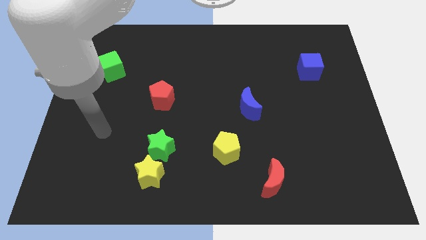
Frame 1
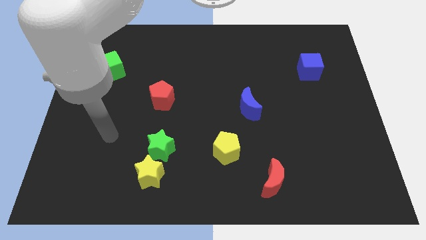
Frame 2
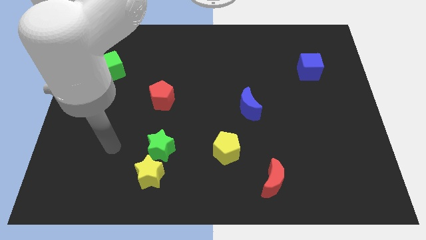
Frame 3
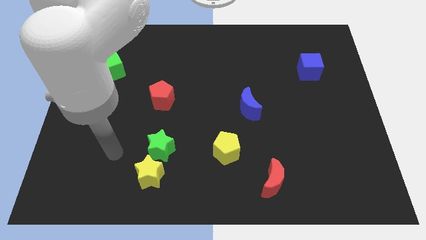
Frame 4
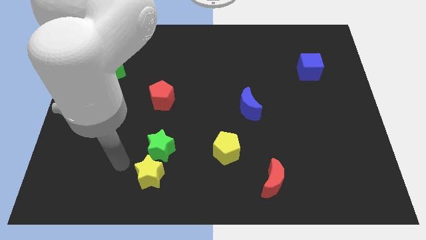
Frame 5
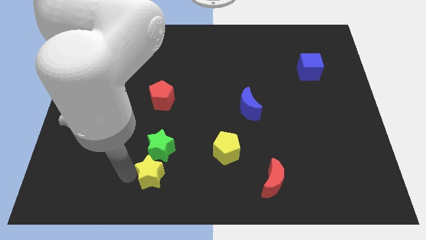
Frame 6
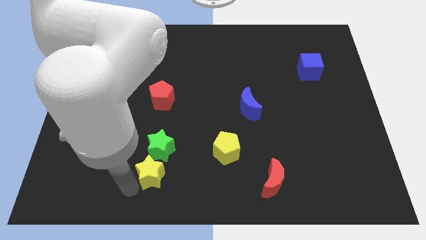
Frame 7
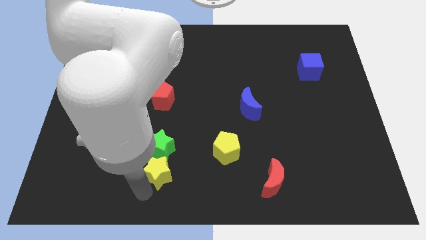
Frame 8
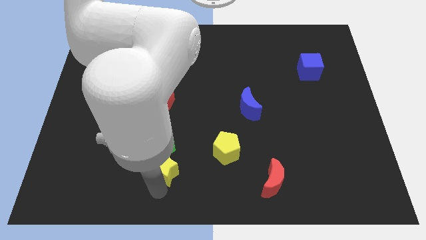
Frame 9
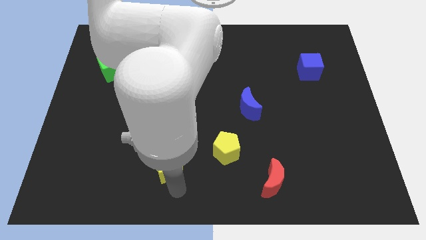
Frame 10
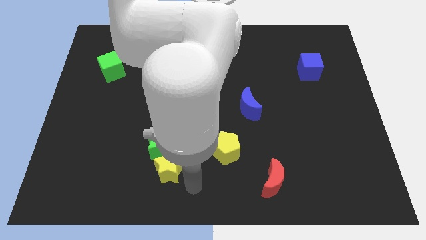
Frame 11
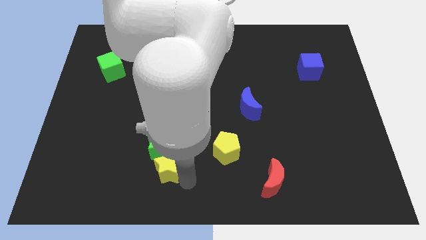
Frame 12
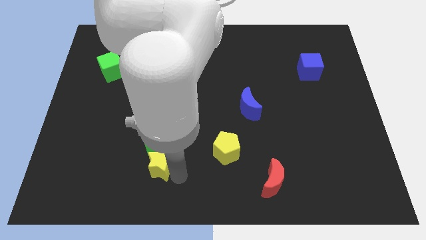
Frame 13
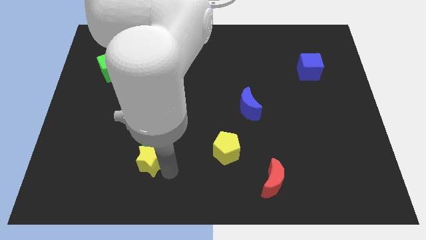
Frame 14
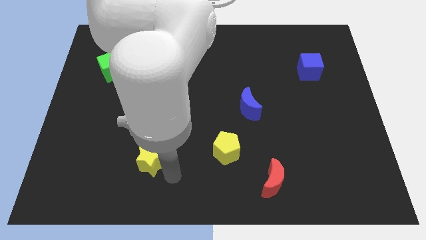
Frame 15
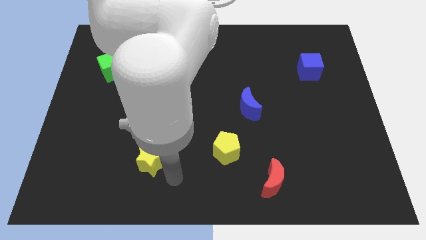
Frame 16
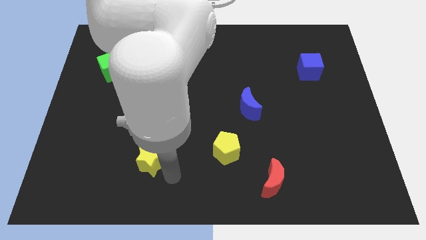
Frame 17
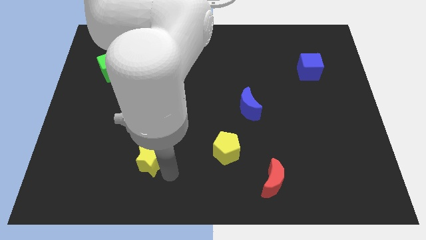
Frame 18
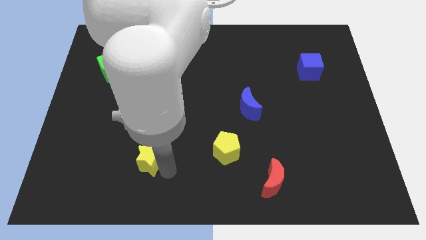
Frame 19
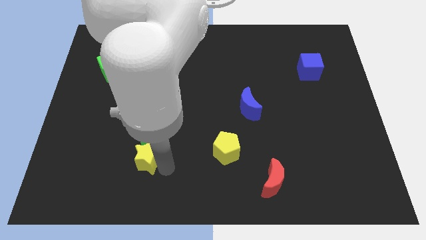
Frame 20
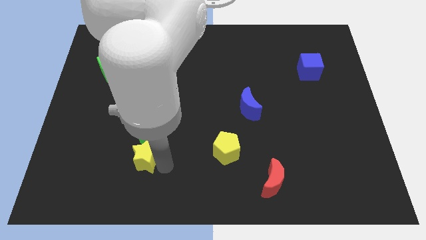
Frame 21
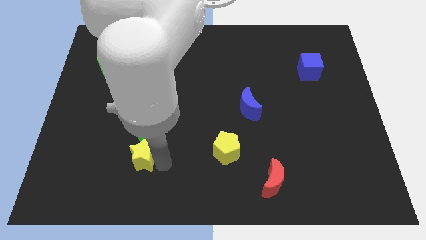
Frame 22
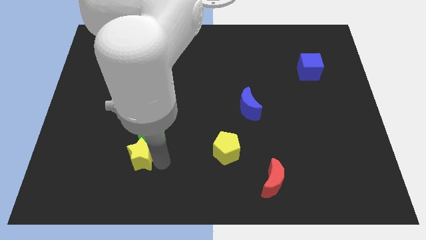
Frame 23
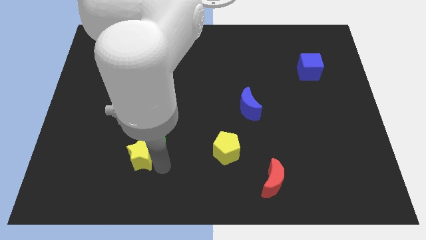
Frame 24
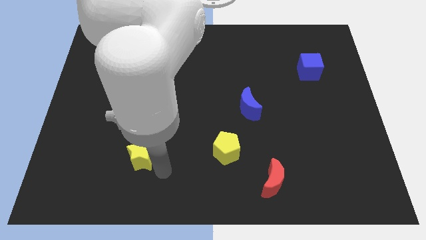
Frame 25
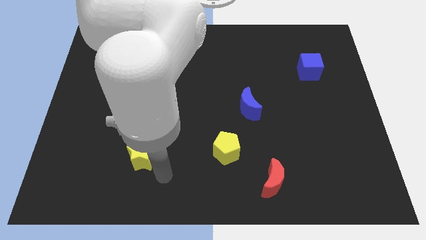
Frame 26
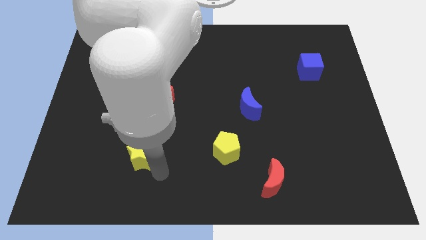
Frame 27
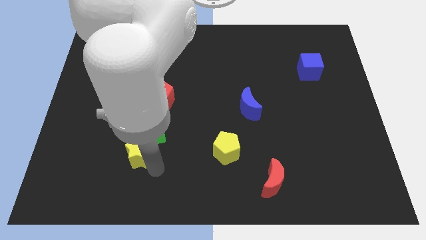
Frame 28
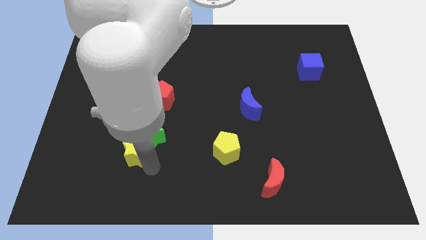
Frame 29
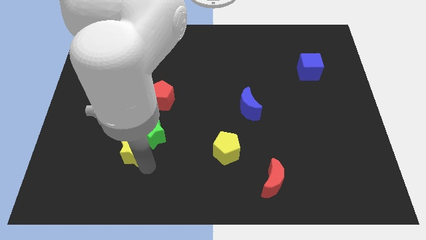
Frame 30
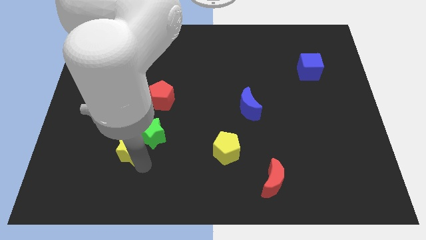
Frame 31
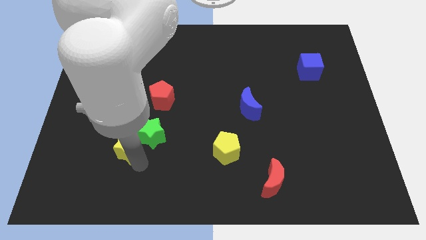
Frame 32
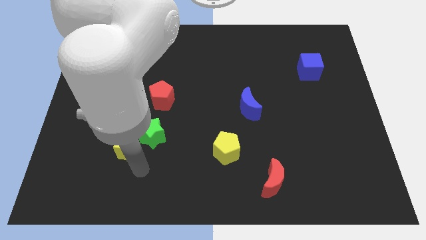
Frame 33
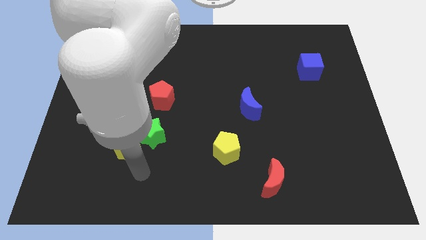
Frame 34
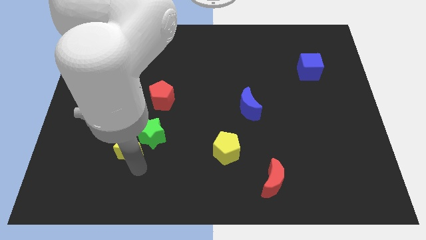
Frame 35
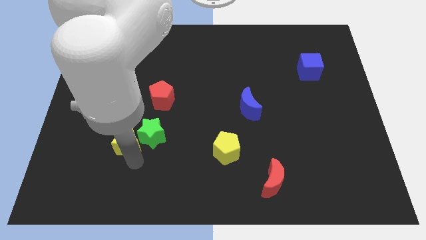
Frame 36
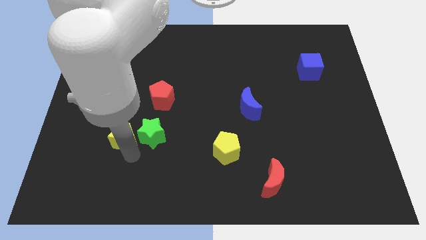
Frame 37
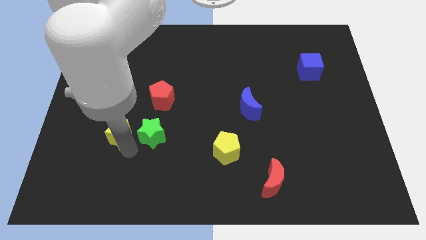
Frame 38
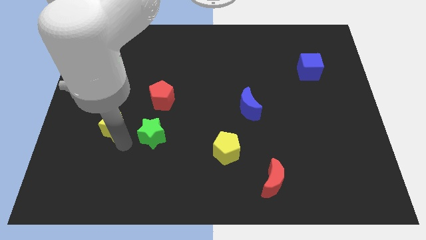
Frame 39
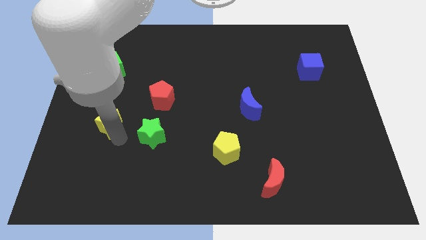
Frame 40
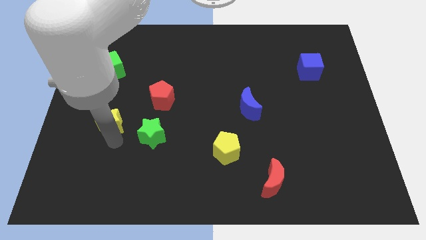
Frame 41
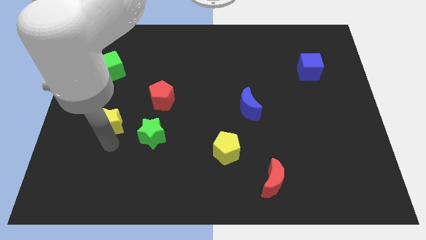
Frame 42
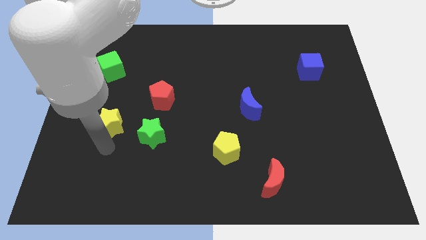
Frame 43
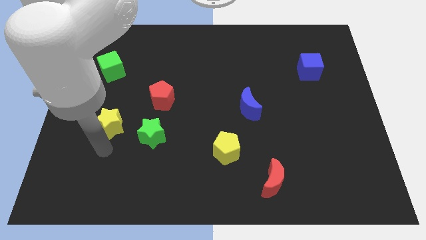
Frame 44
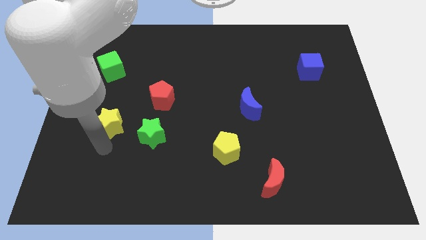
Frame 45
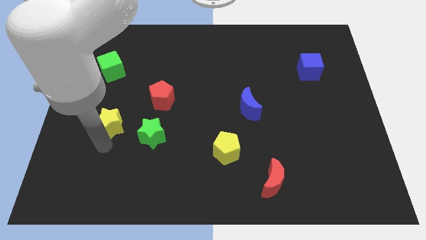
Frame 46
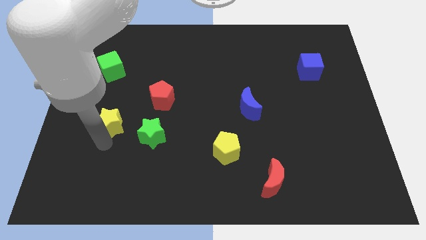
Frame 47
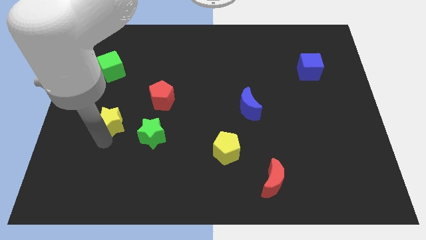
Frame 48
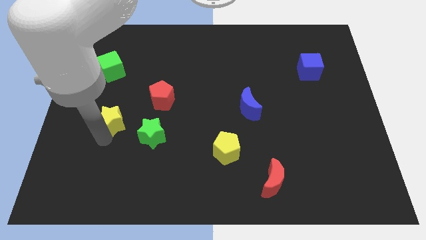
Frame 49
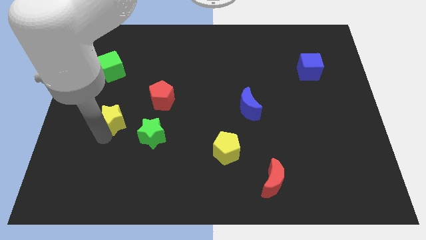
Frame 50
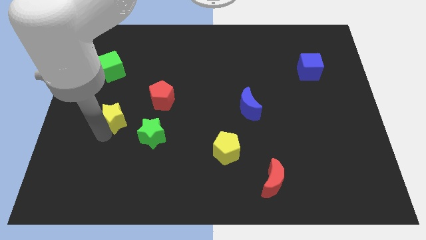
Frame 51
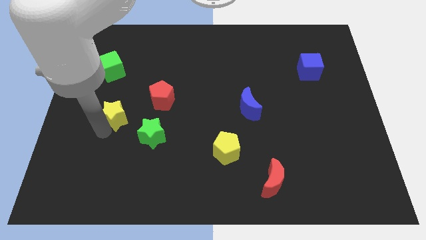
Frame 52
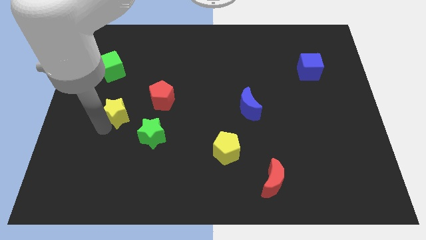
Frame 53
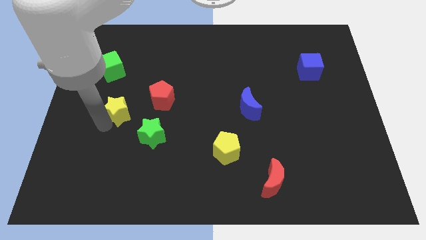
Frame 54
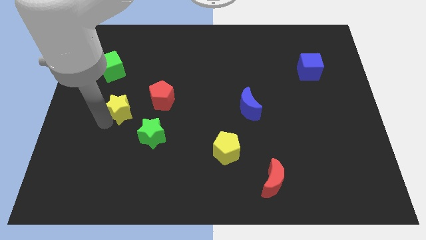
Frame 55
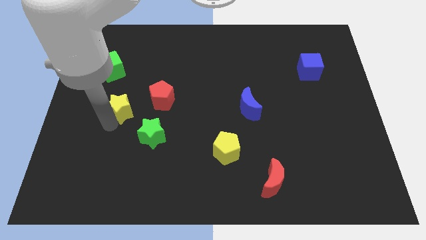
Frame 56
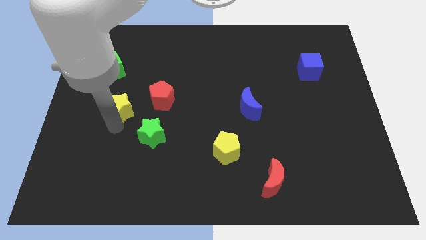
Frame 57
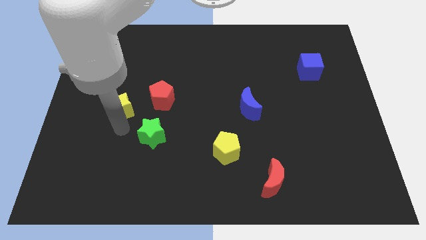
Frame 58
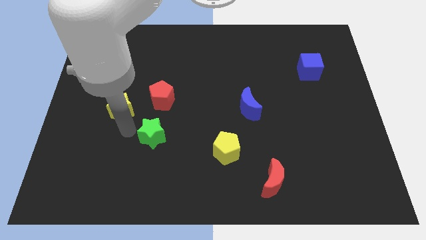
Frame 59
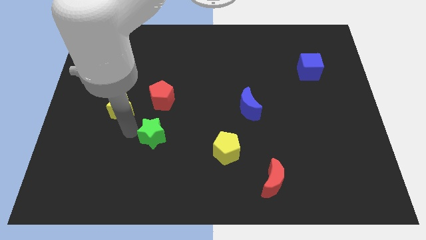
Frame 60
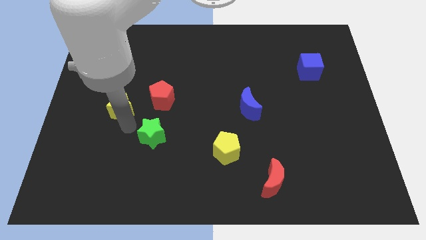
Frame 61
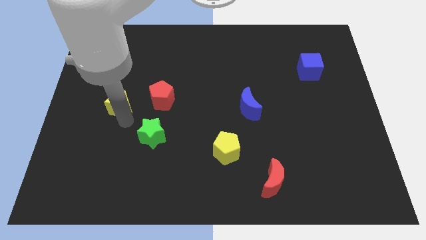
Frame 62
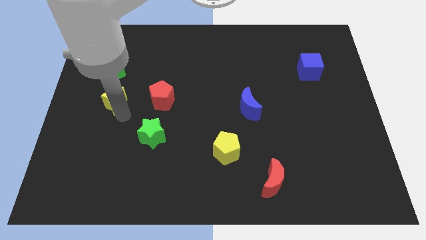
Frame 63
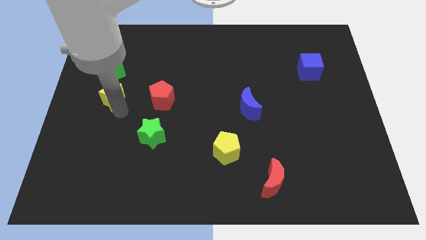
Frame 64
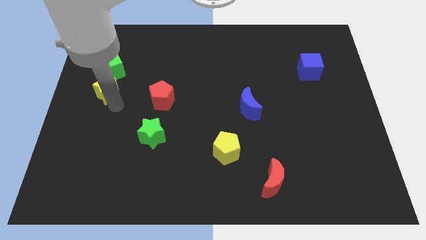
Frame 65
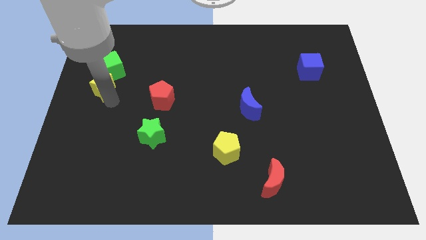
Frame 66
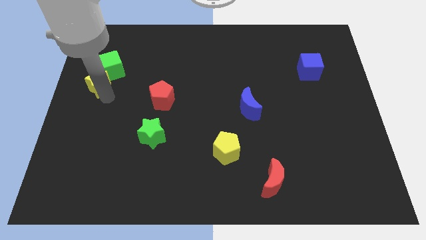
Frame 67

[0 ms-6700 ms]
put the yellow star to the green cube

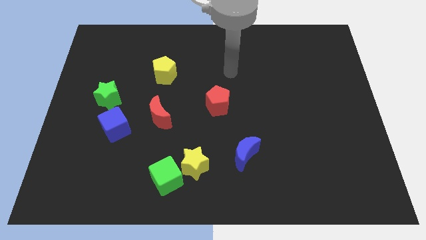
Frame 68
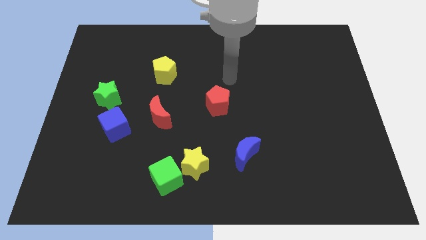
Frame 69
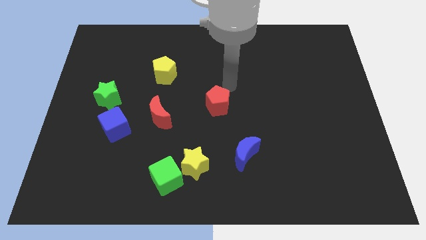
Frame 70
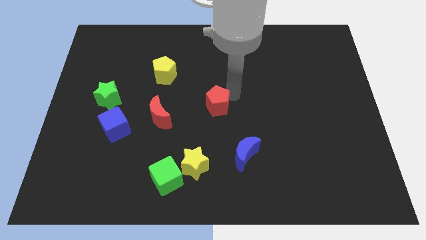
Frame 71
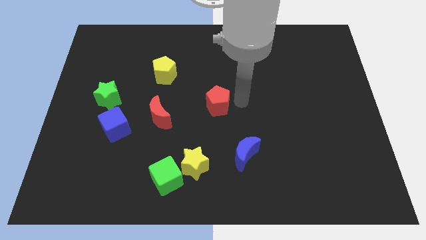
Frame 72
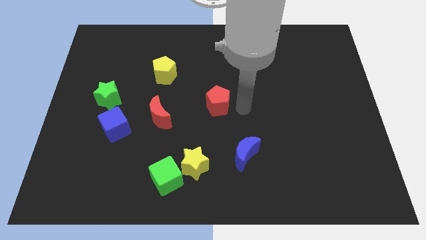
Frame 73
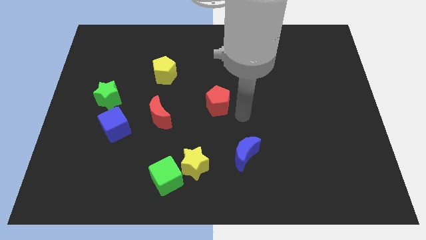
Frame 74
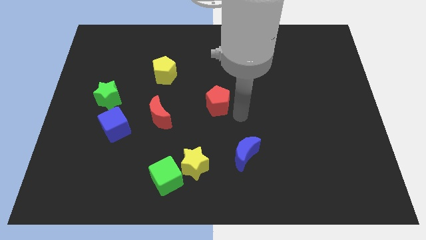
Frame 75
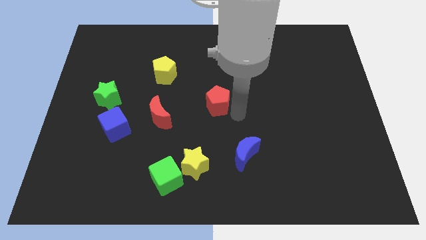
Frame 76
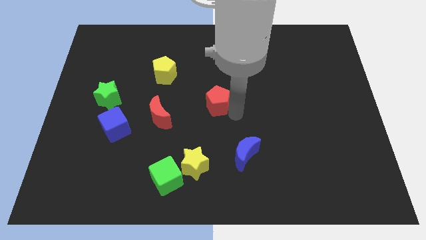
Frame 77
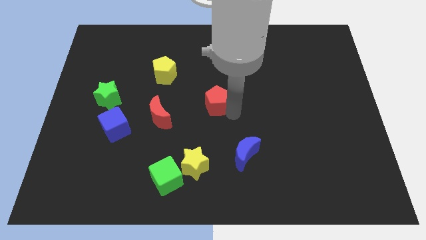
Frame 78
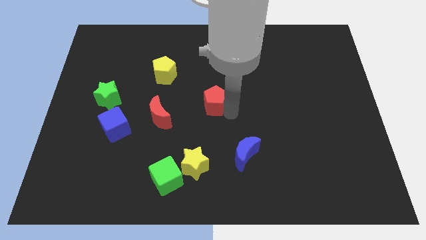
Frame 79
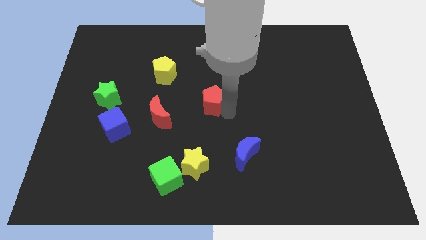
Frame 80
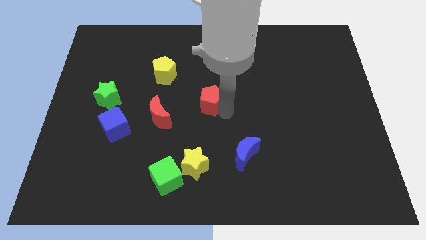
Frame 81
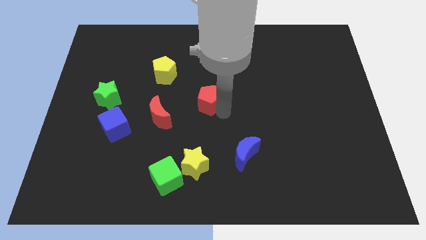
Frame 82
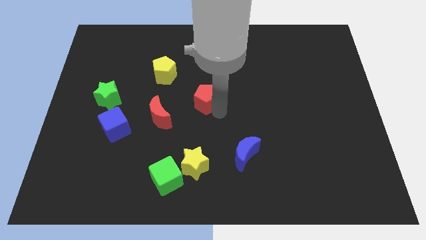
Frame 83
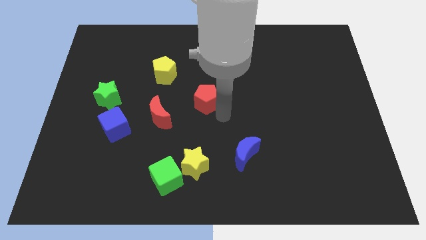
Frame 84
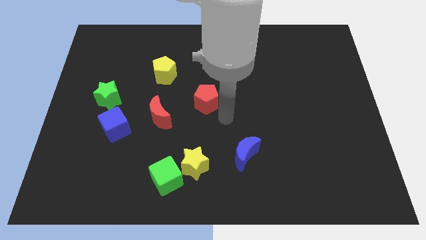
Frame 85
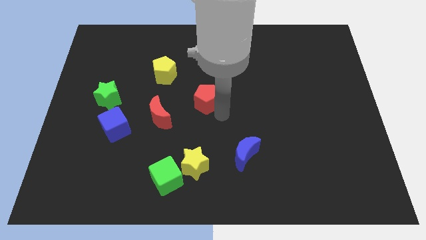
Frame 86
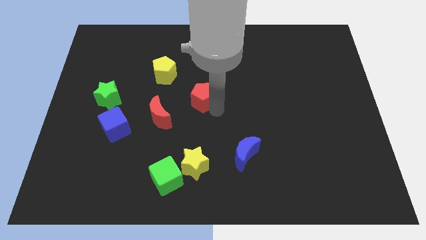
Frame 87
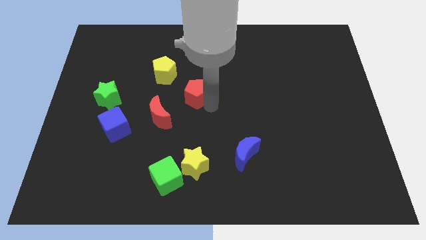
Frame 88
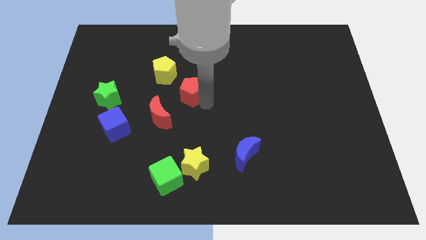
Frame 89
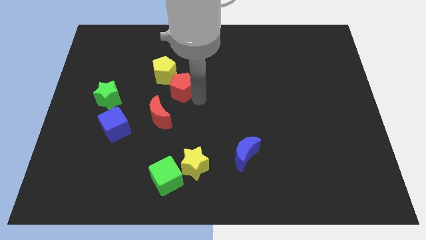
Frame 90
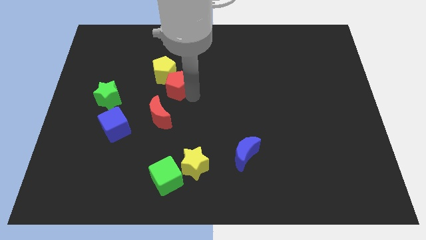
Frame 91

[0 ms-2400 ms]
put the red pentagon to the yellow pentagon
